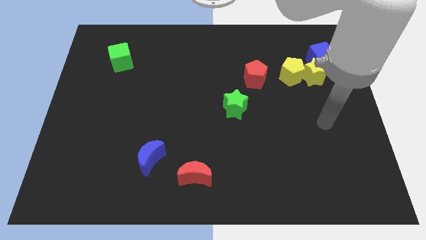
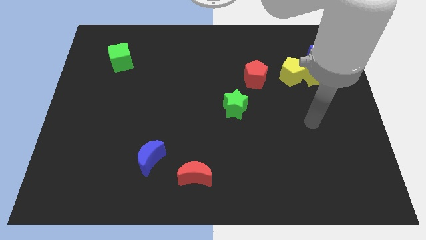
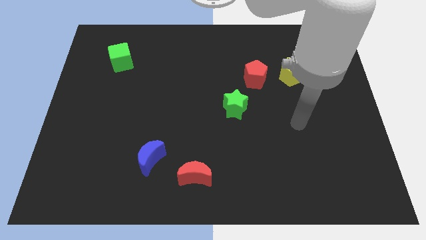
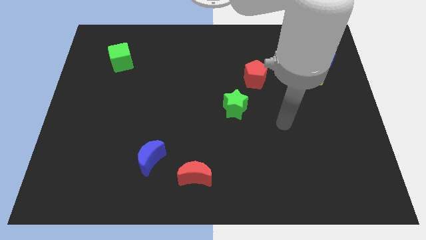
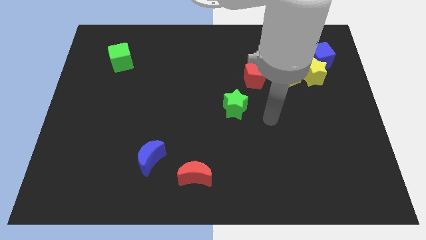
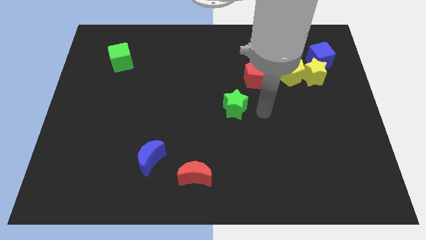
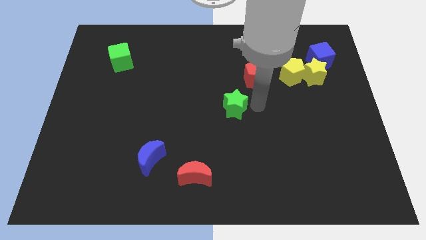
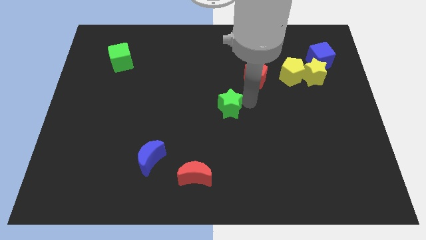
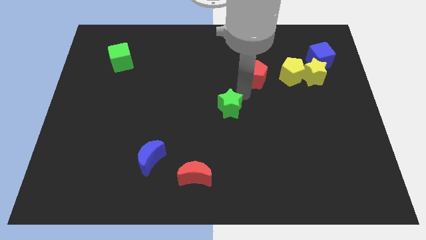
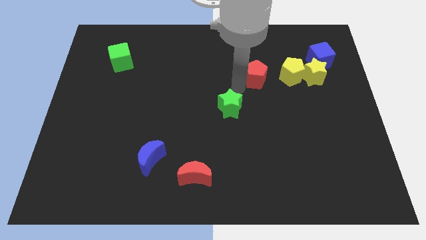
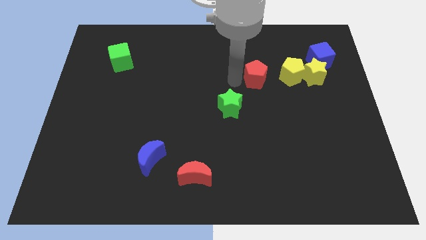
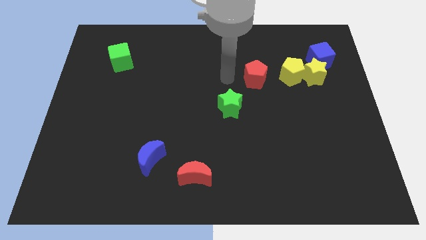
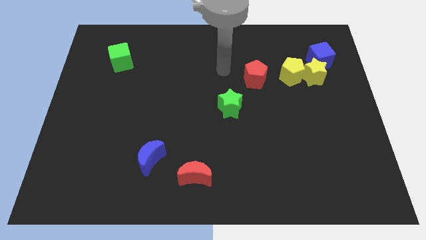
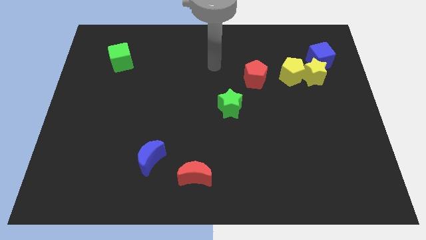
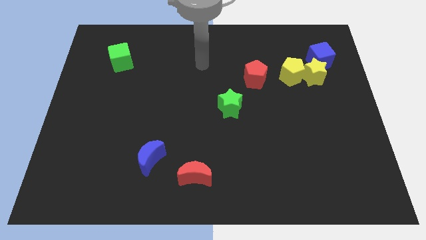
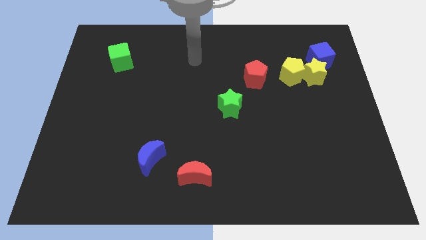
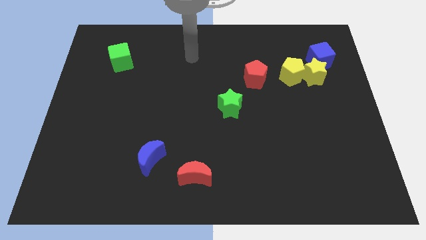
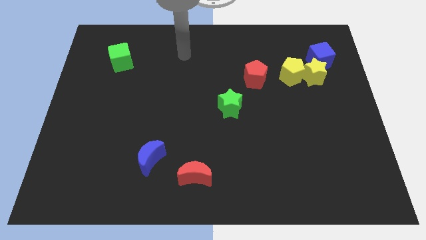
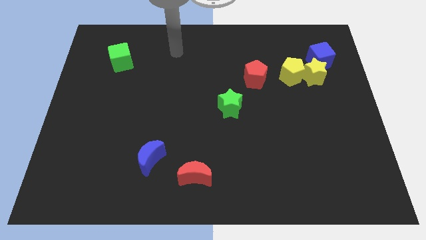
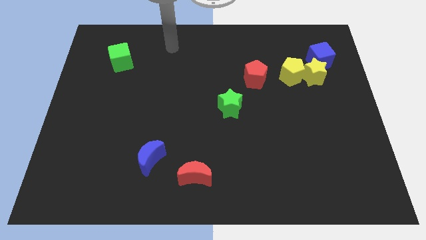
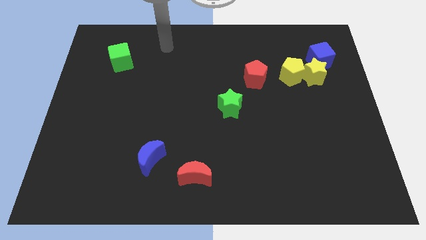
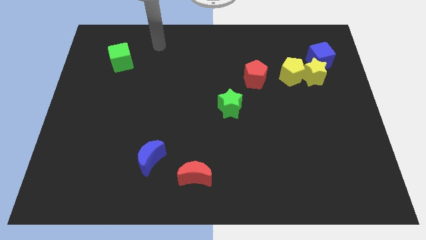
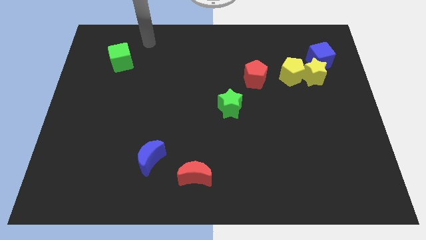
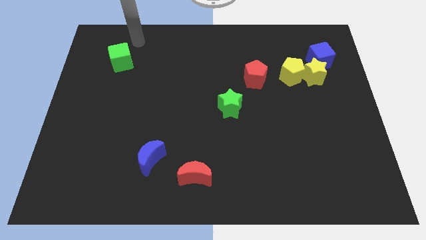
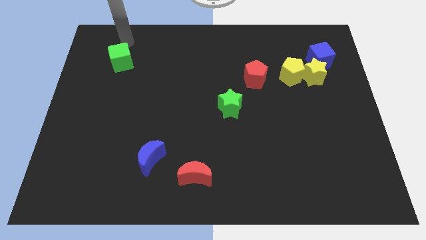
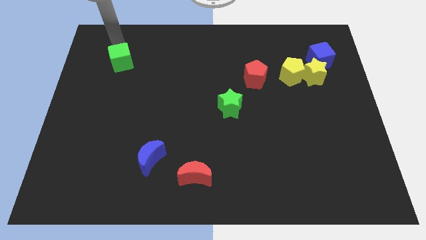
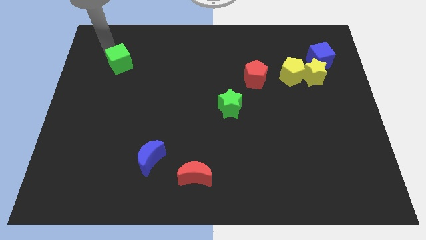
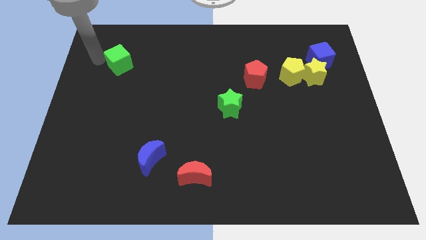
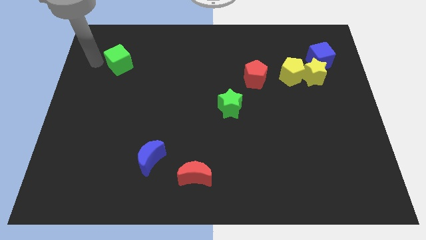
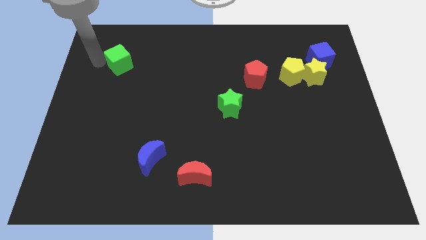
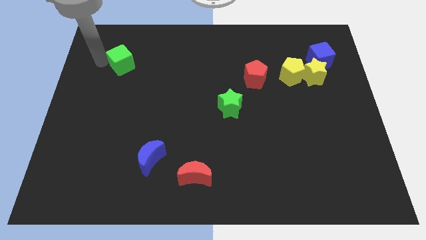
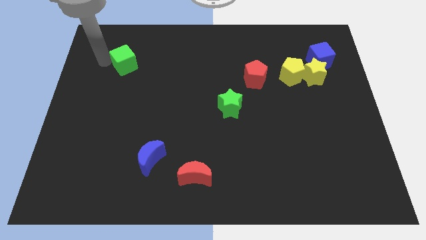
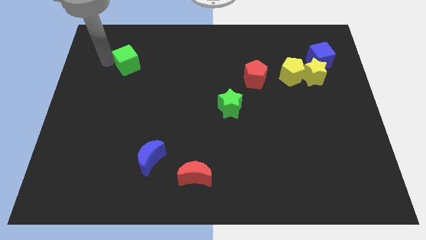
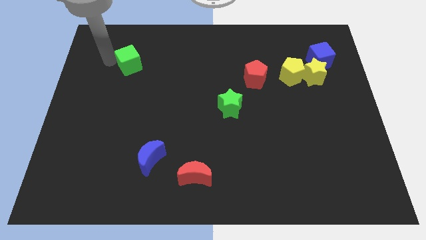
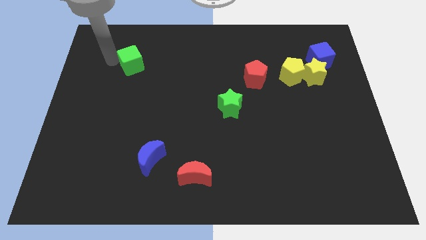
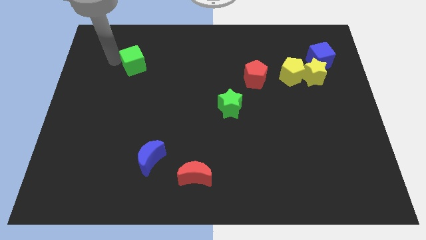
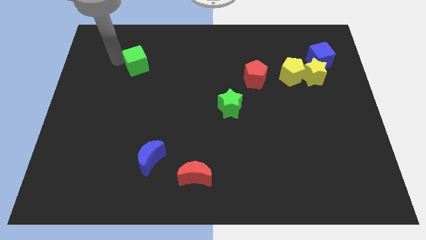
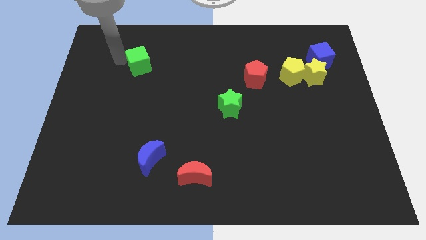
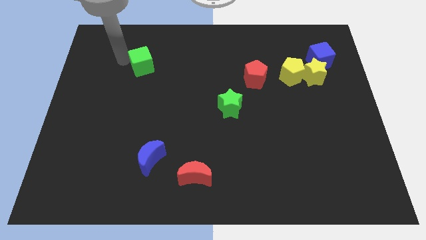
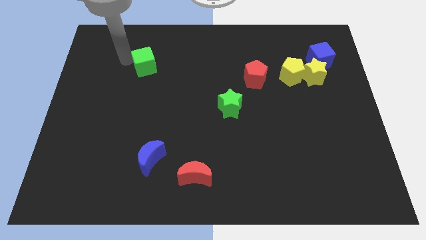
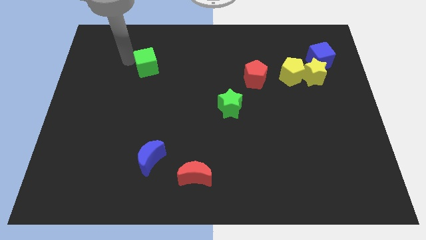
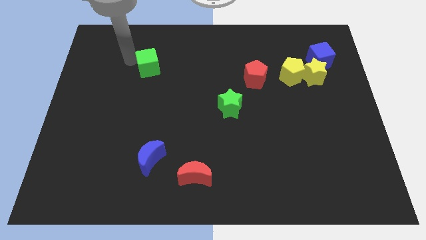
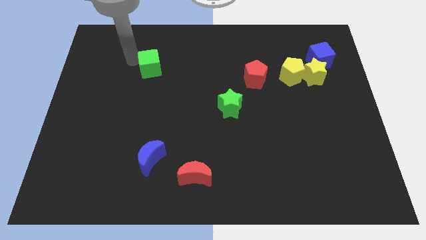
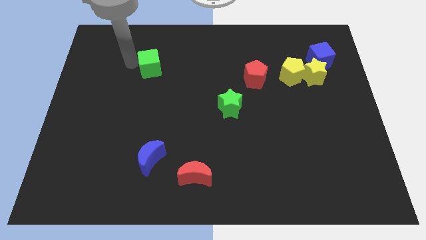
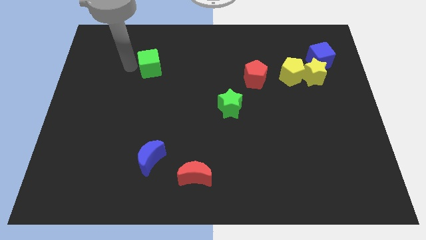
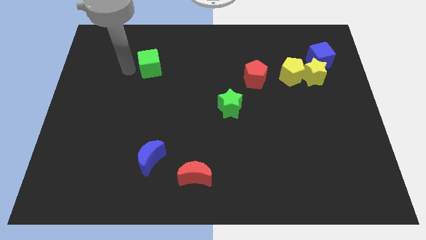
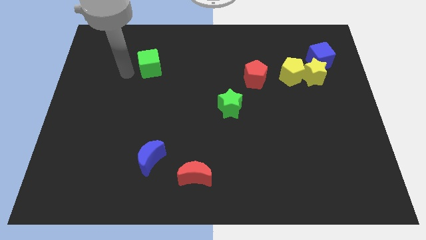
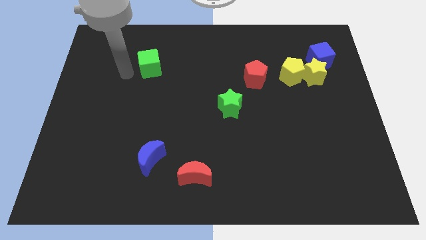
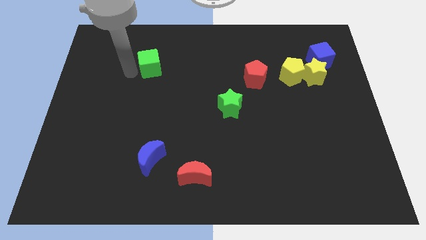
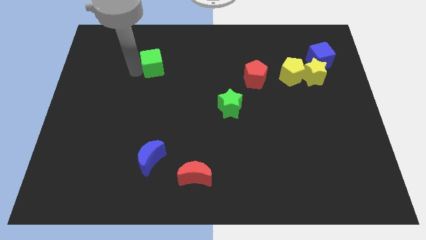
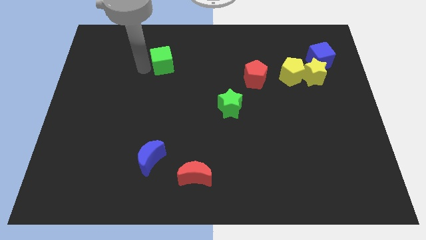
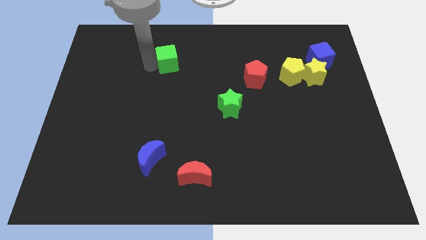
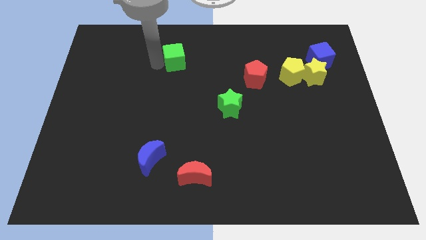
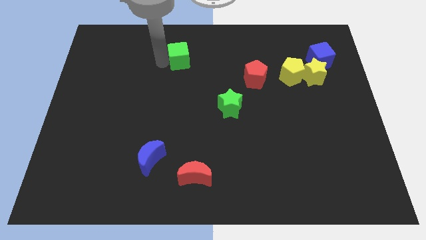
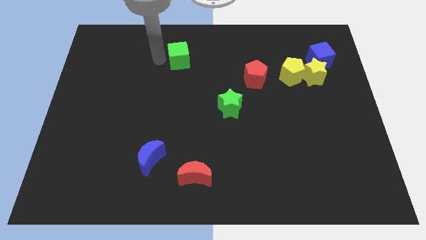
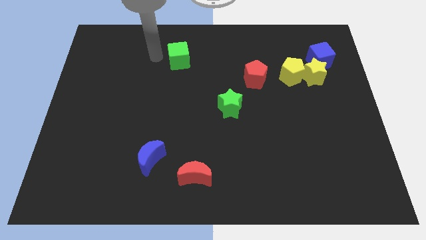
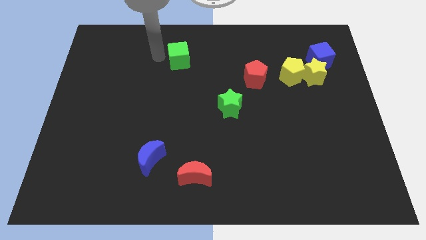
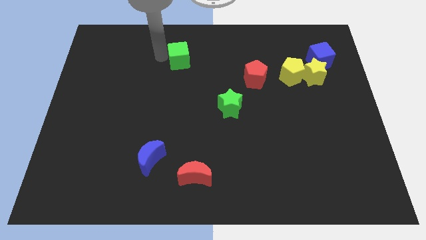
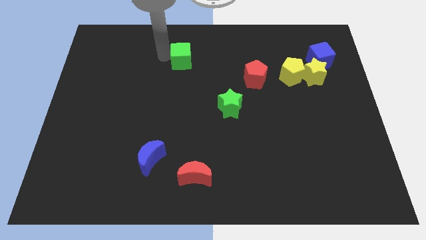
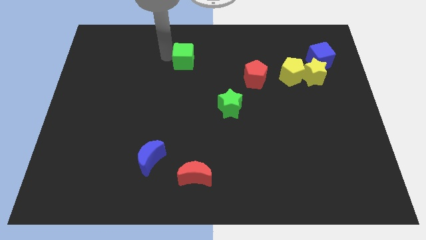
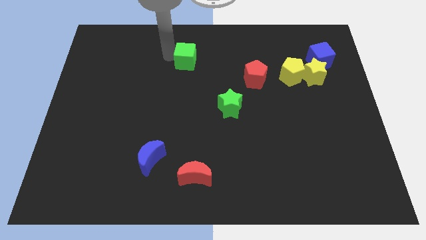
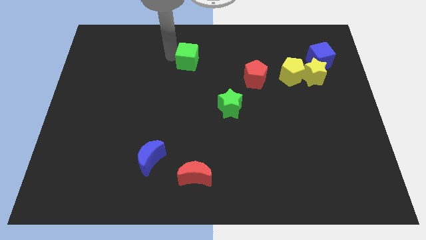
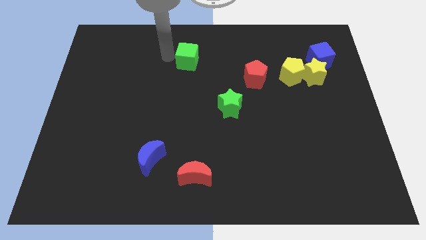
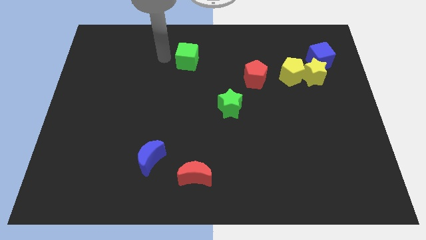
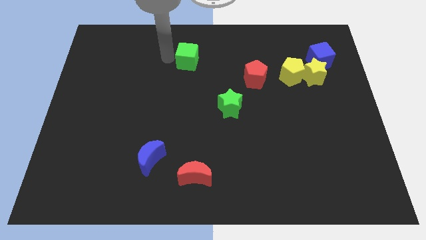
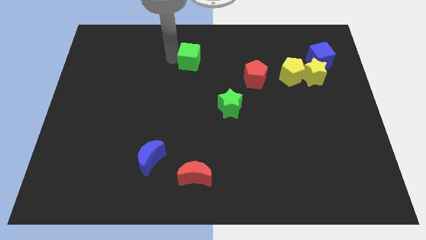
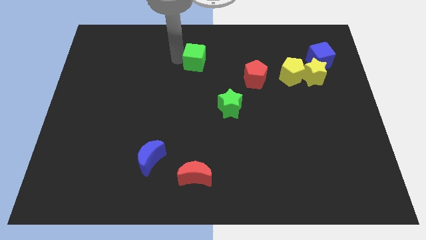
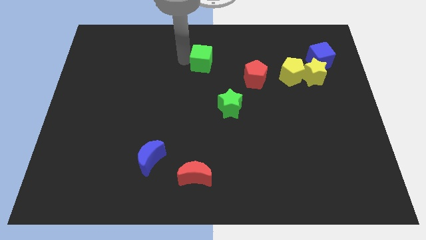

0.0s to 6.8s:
push the green cube to the right

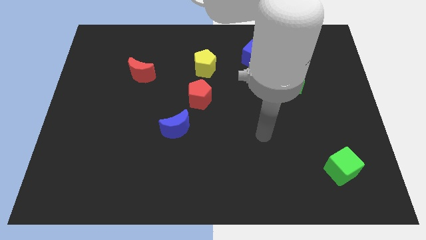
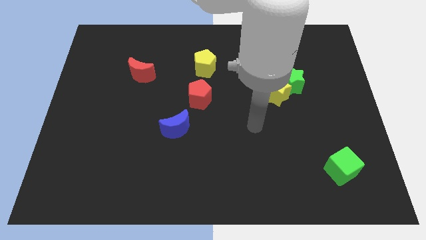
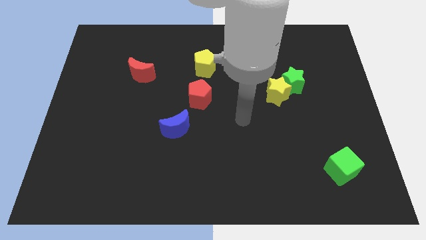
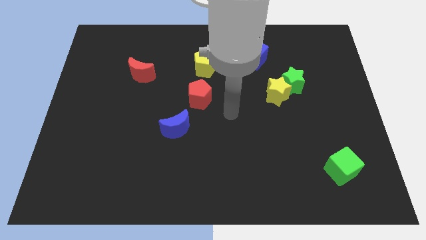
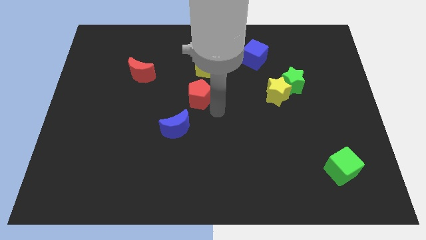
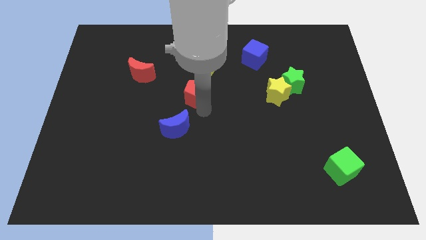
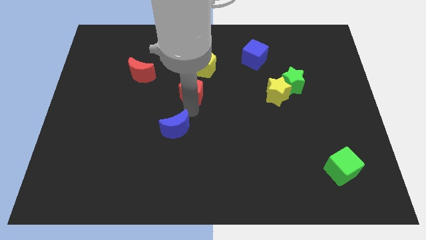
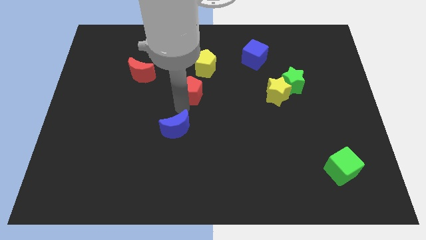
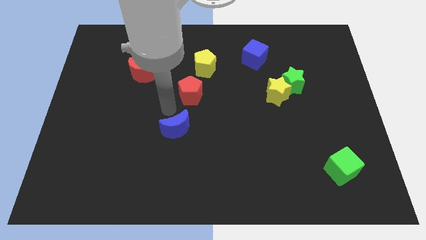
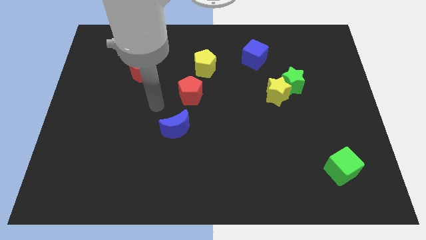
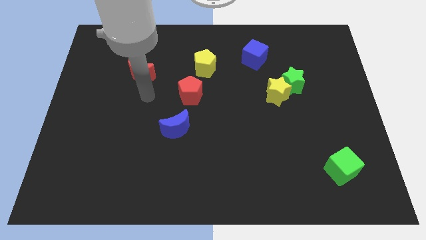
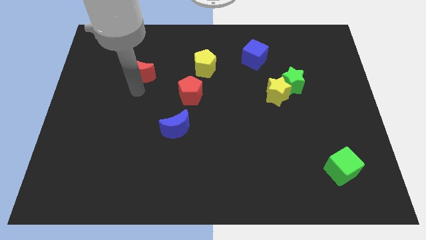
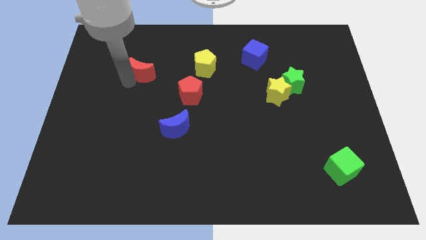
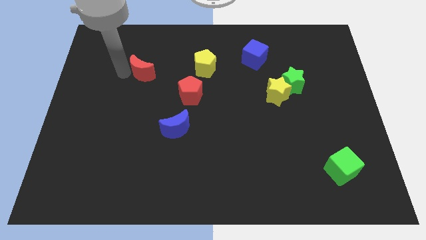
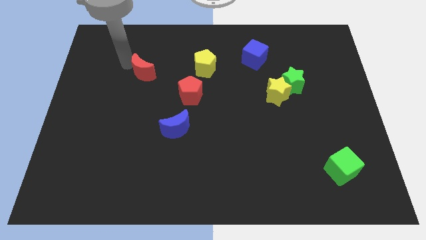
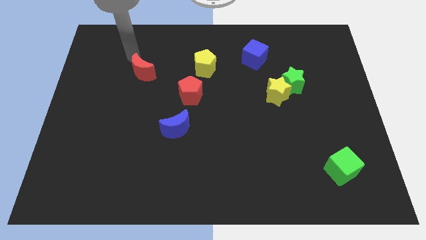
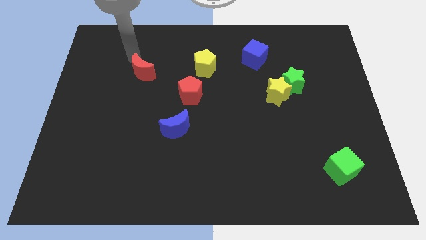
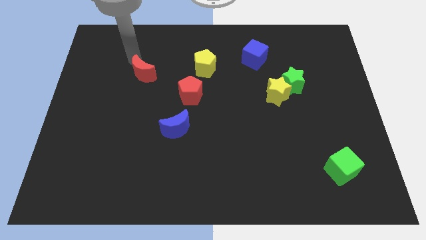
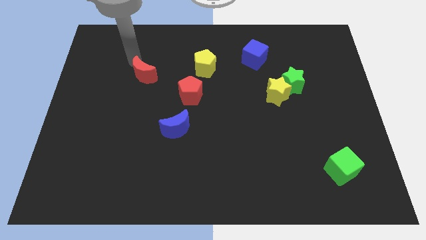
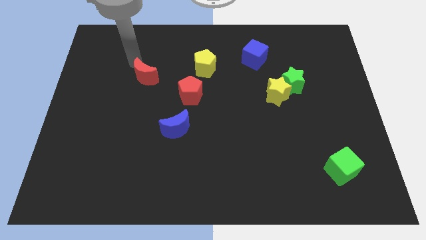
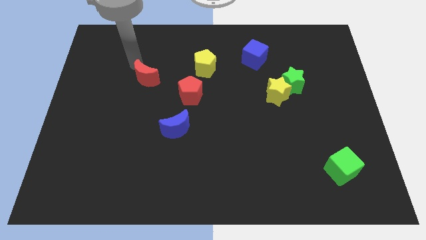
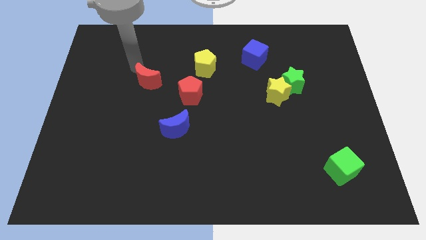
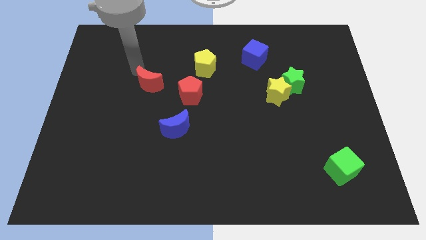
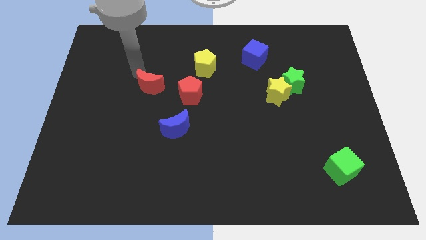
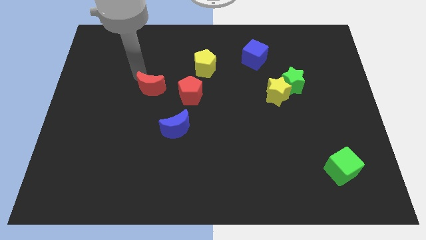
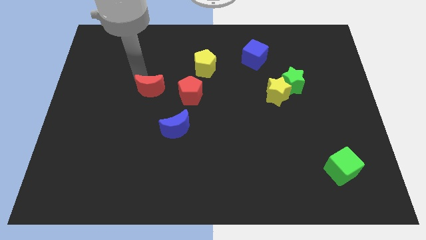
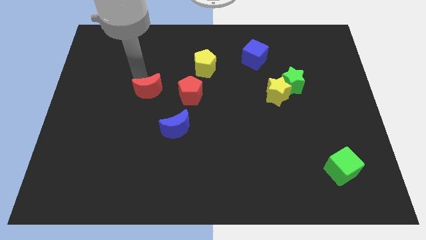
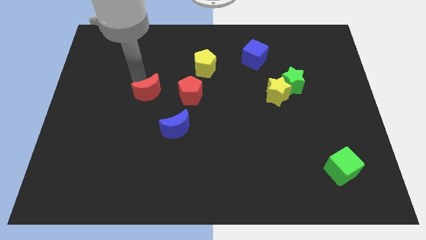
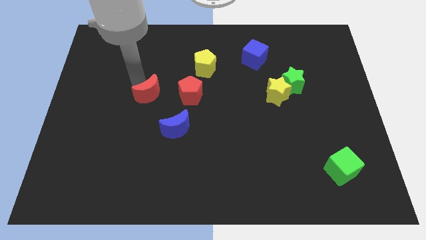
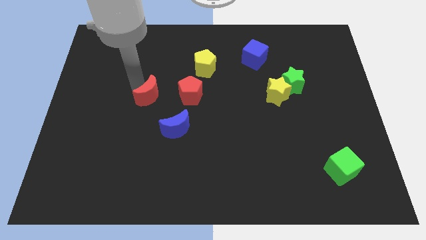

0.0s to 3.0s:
slightly slide the red moon down and then to the right
